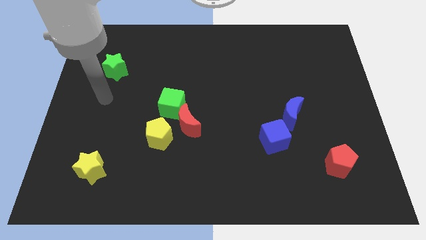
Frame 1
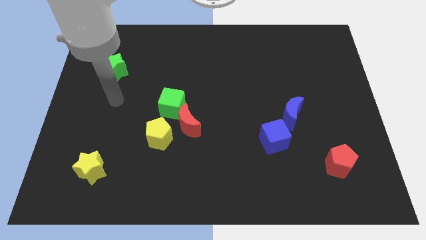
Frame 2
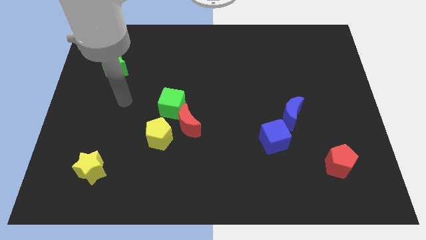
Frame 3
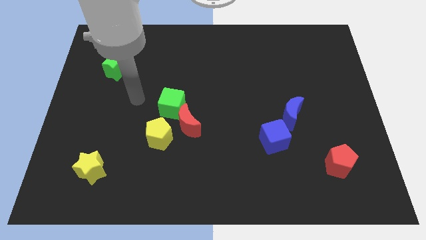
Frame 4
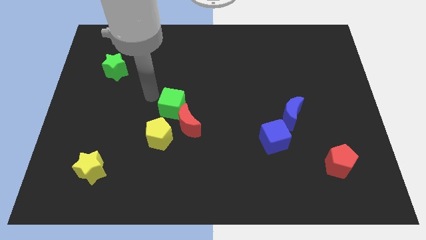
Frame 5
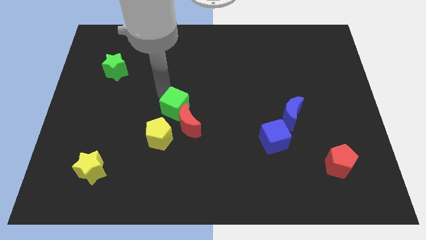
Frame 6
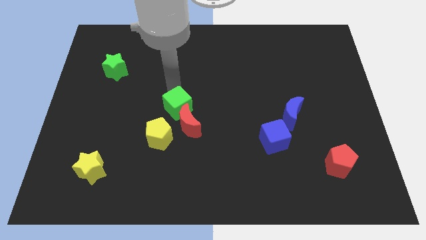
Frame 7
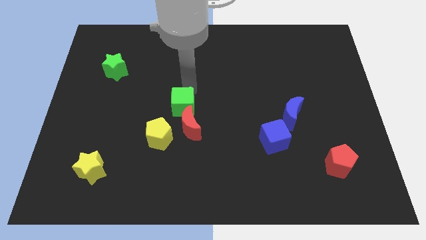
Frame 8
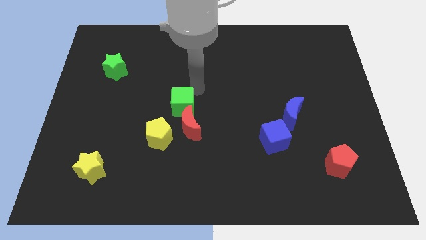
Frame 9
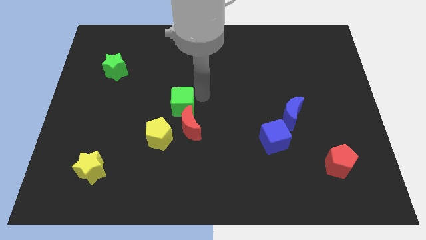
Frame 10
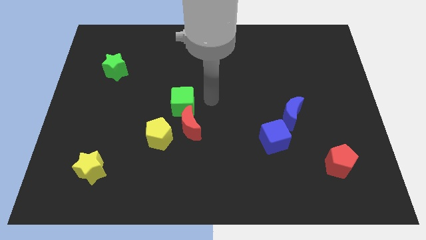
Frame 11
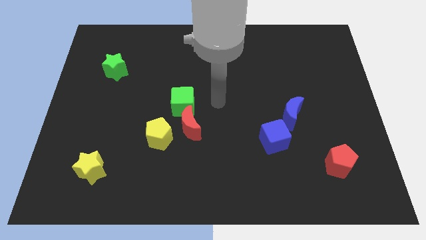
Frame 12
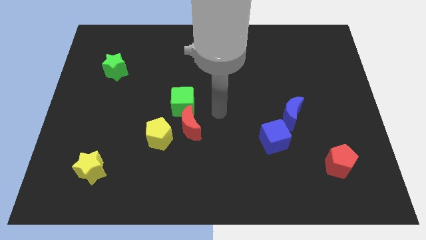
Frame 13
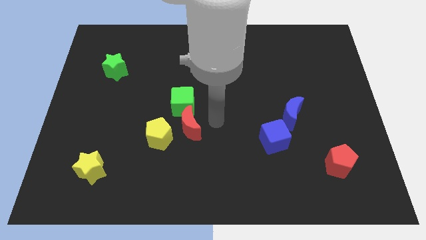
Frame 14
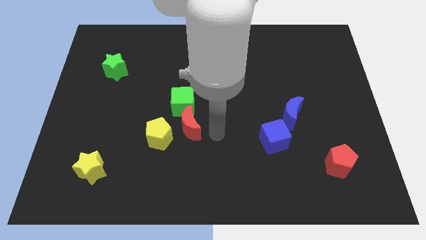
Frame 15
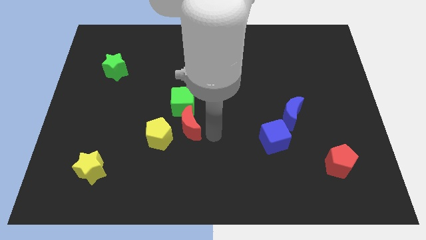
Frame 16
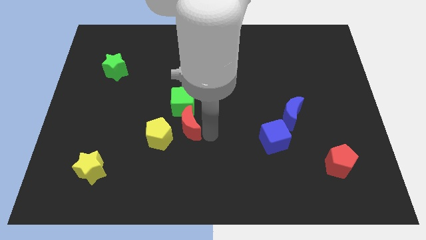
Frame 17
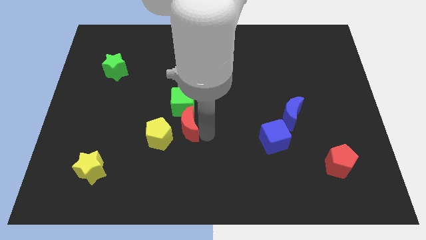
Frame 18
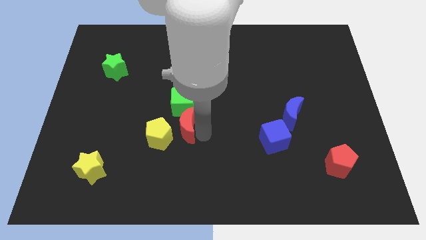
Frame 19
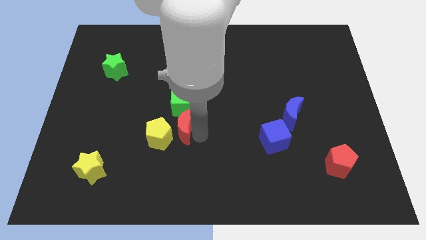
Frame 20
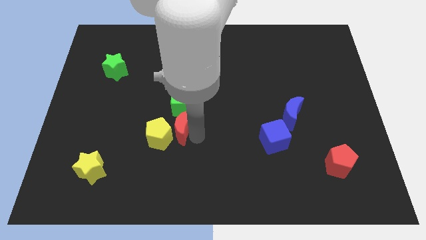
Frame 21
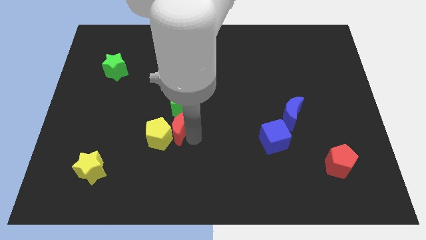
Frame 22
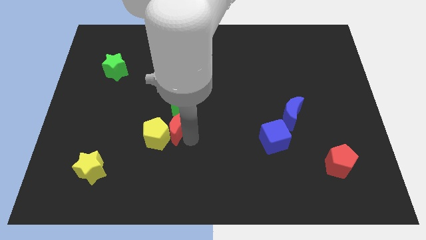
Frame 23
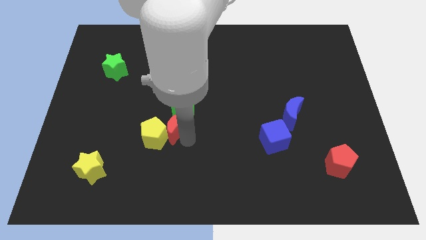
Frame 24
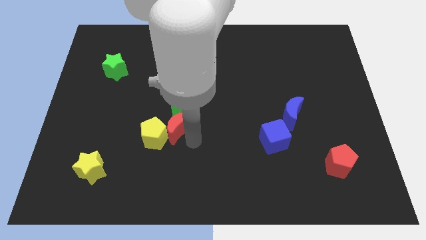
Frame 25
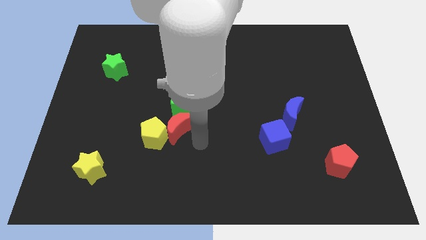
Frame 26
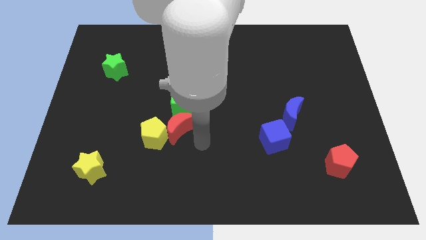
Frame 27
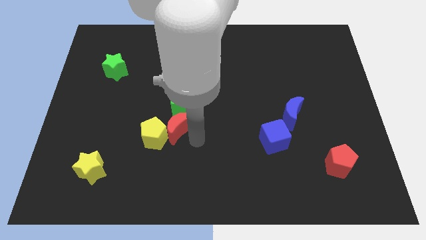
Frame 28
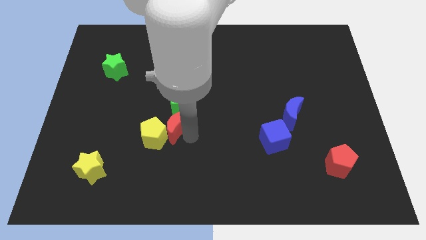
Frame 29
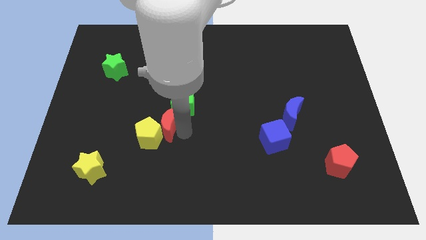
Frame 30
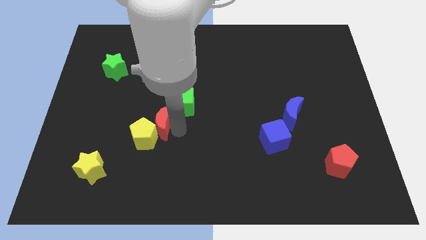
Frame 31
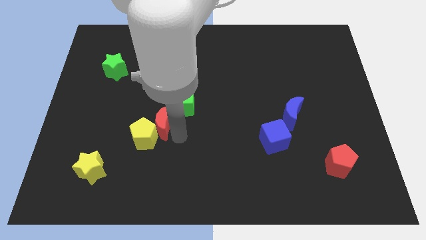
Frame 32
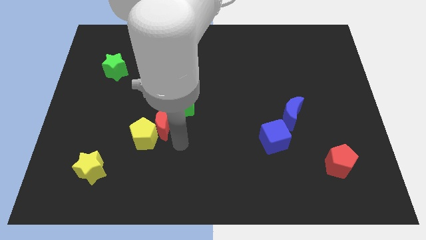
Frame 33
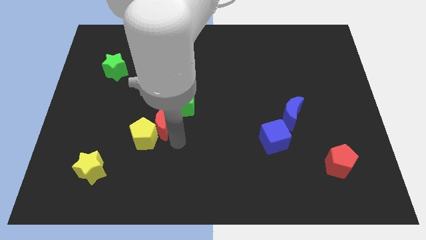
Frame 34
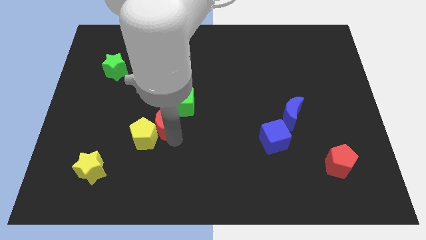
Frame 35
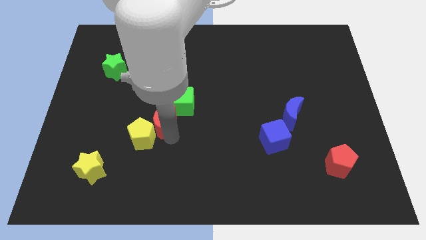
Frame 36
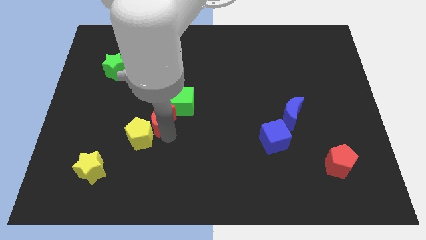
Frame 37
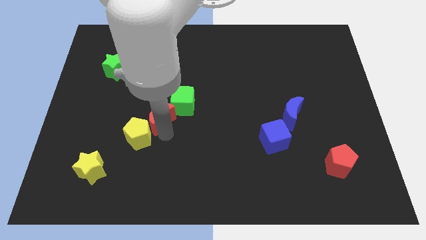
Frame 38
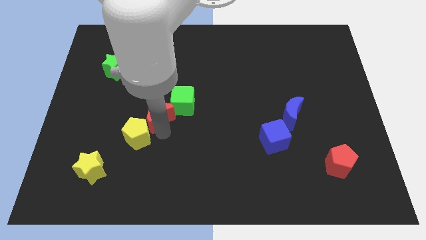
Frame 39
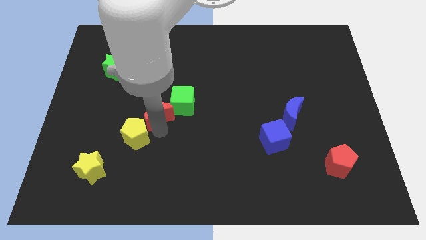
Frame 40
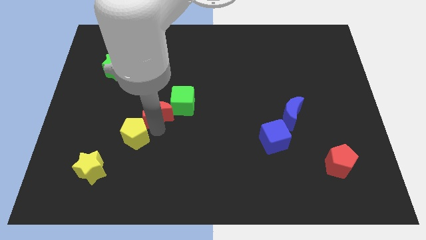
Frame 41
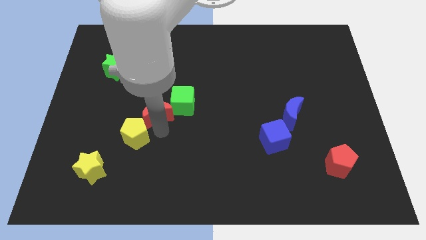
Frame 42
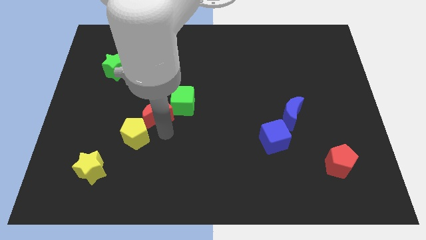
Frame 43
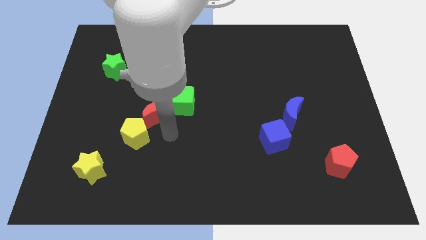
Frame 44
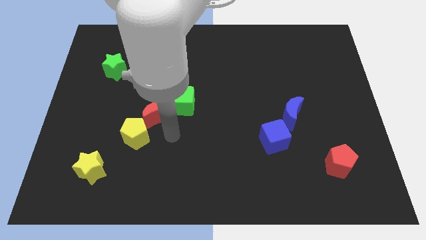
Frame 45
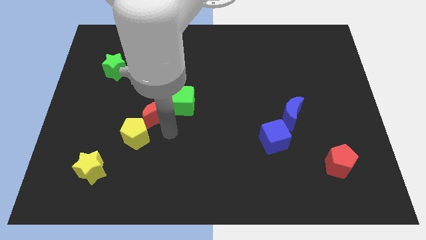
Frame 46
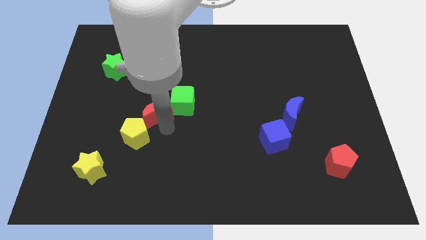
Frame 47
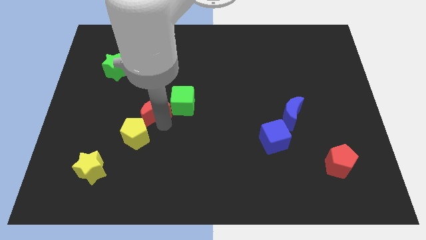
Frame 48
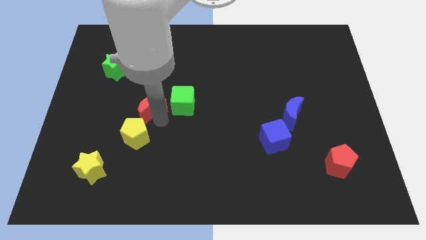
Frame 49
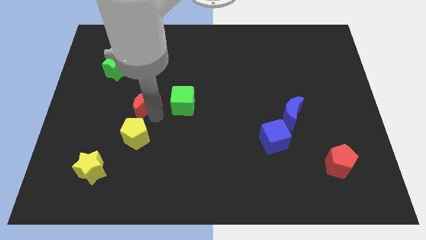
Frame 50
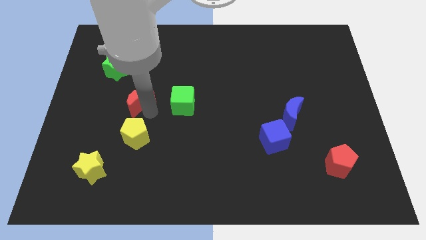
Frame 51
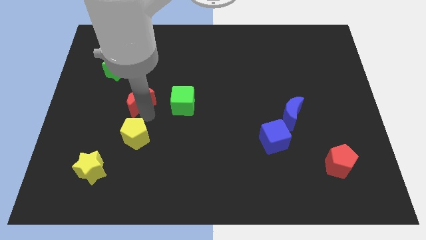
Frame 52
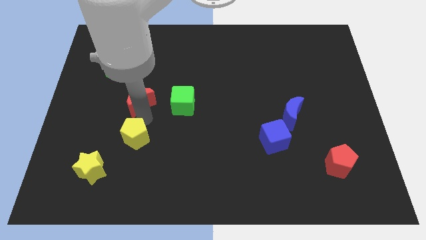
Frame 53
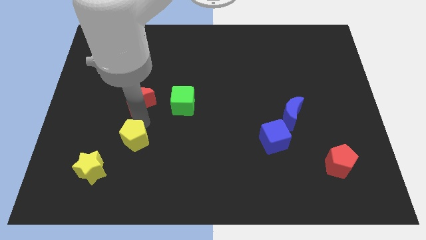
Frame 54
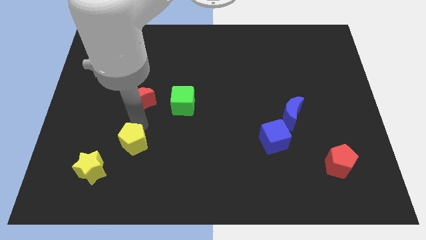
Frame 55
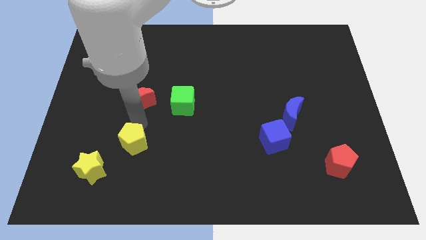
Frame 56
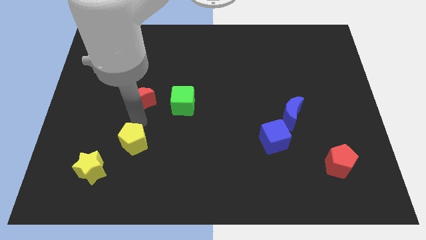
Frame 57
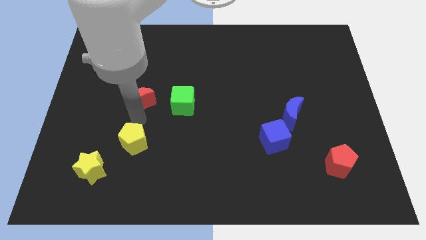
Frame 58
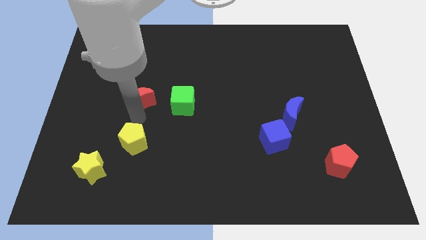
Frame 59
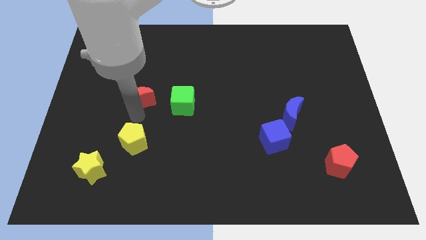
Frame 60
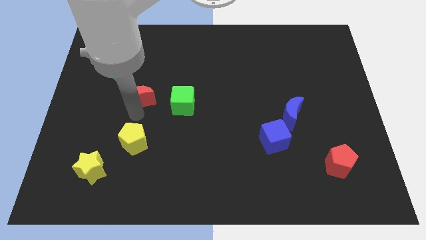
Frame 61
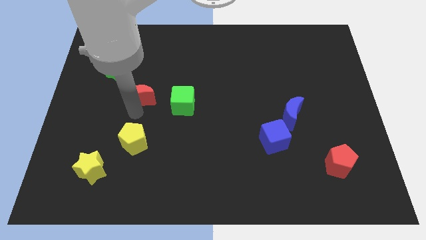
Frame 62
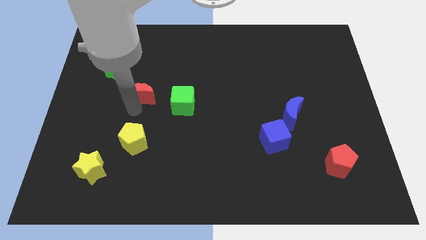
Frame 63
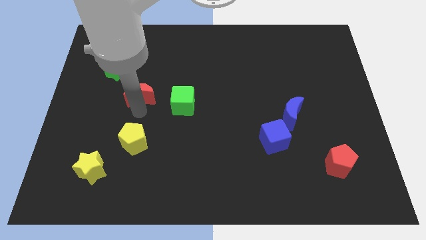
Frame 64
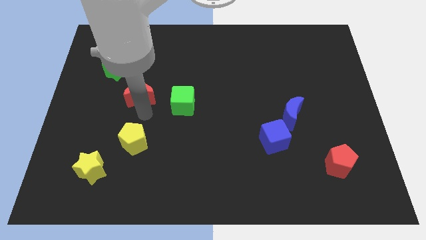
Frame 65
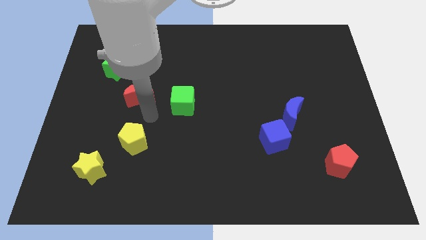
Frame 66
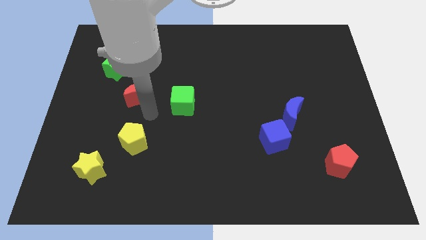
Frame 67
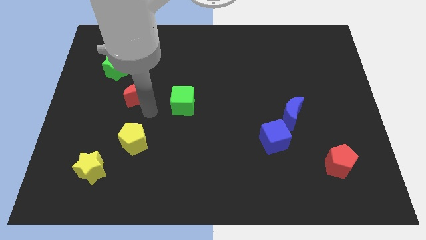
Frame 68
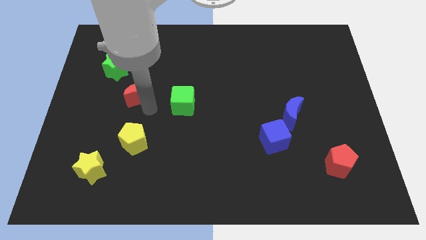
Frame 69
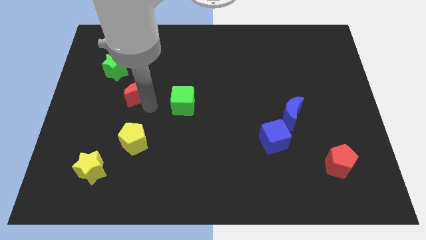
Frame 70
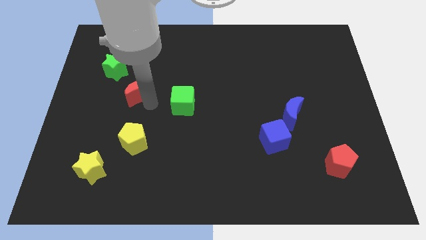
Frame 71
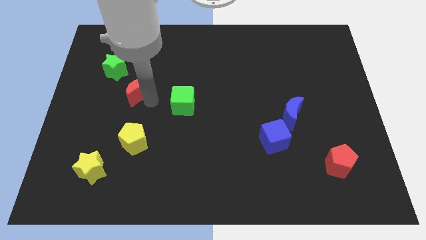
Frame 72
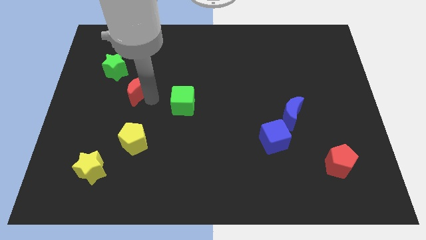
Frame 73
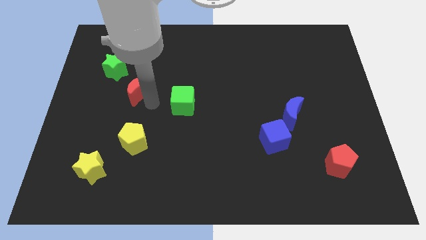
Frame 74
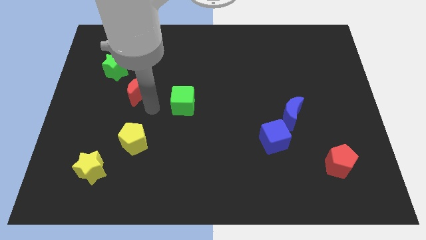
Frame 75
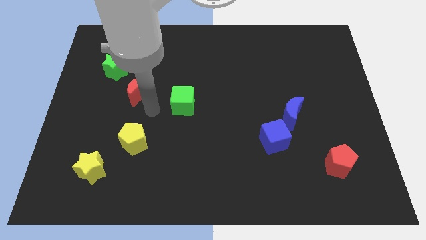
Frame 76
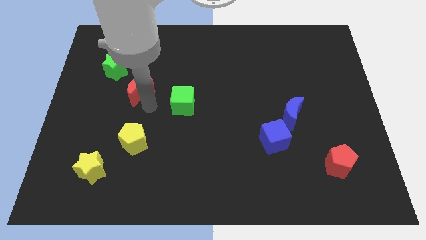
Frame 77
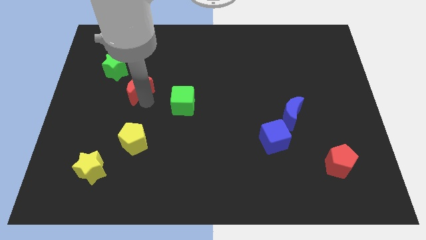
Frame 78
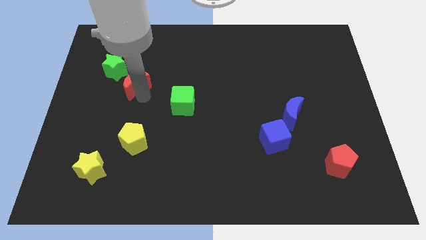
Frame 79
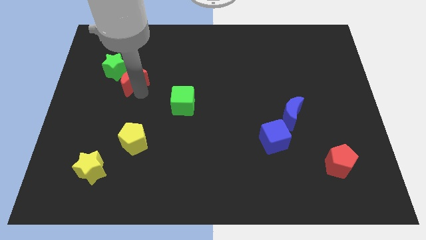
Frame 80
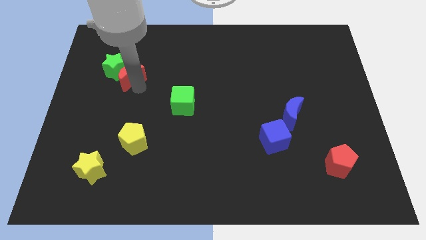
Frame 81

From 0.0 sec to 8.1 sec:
put the red moon close to the green star
